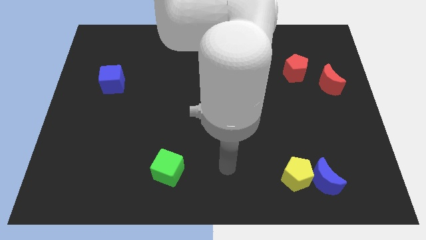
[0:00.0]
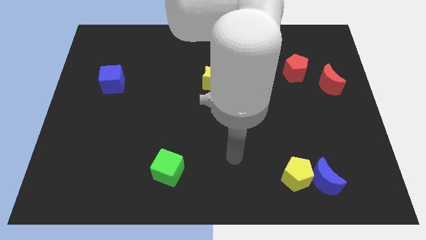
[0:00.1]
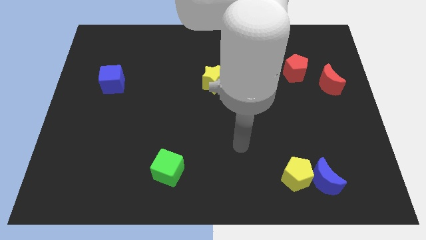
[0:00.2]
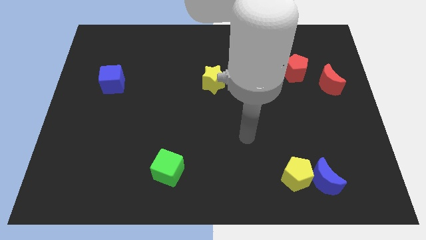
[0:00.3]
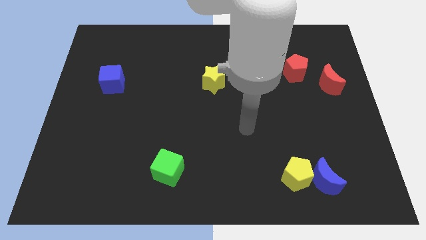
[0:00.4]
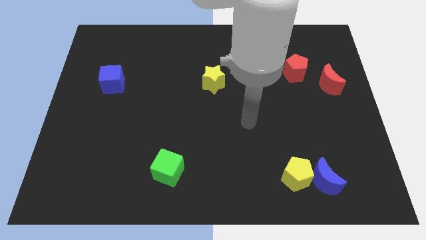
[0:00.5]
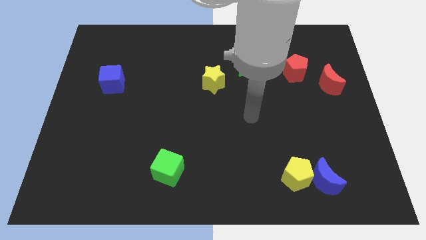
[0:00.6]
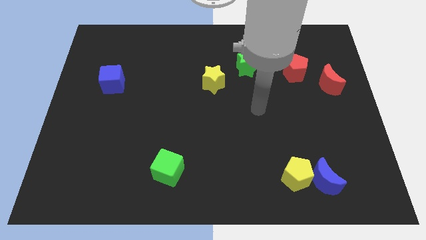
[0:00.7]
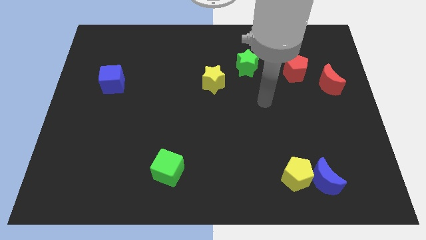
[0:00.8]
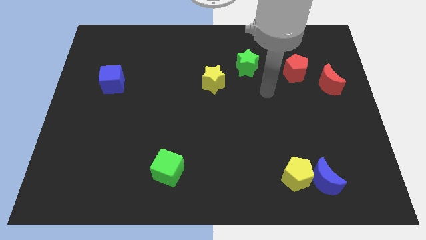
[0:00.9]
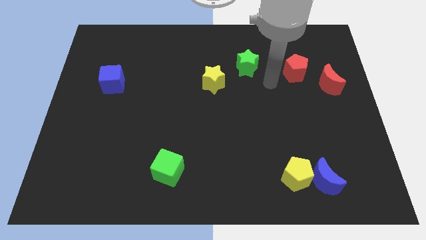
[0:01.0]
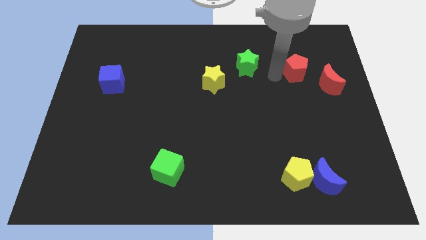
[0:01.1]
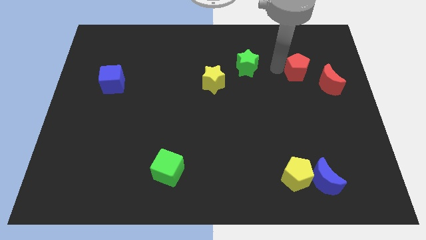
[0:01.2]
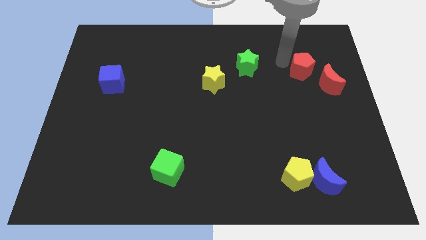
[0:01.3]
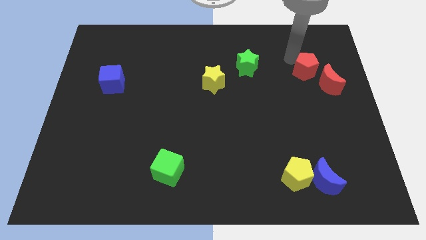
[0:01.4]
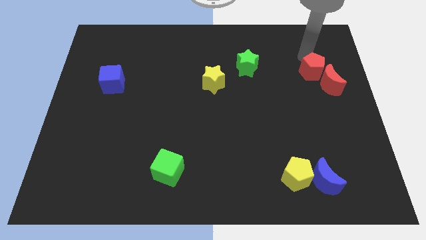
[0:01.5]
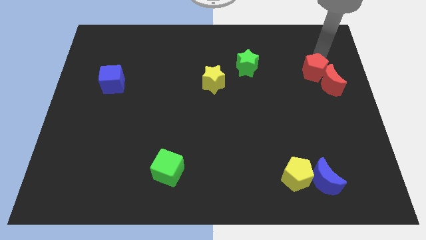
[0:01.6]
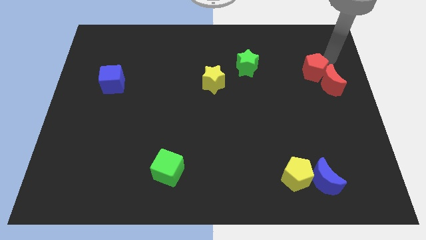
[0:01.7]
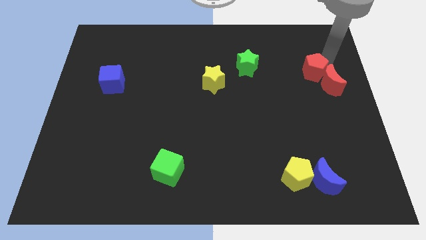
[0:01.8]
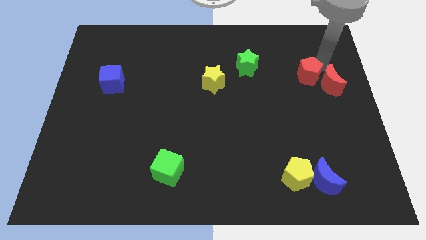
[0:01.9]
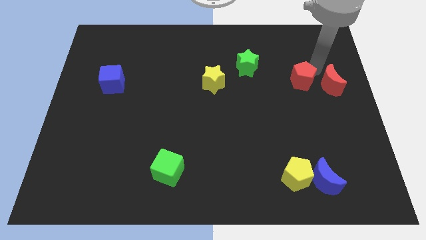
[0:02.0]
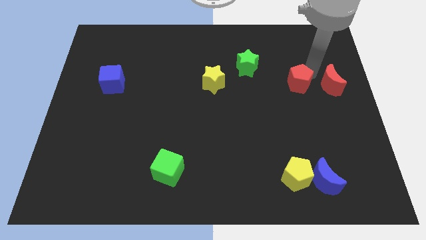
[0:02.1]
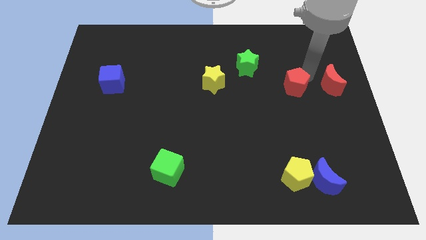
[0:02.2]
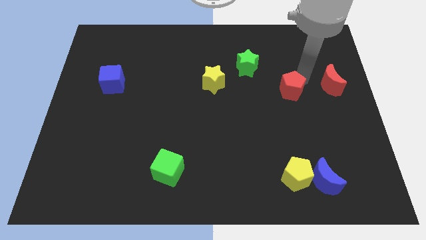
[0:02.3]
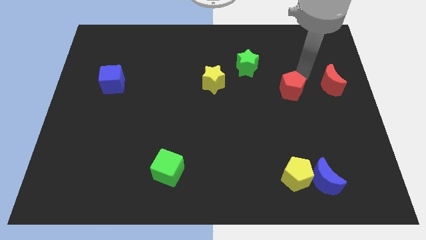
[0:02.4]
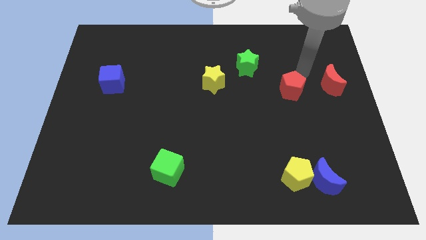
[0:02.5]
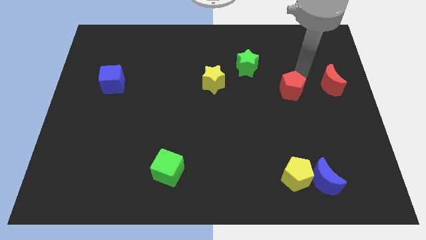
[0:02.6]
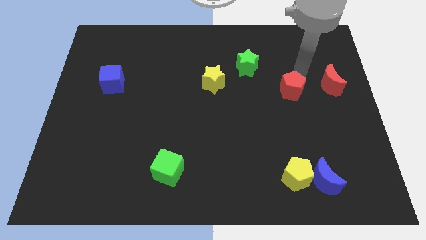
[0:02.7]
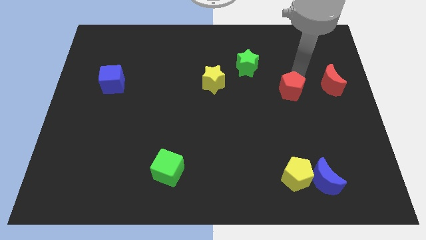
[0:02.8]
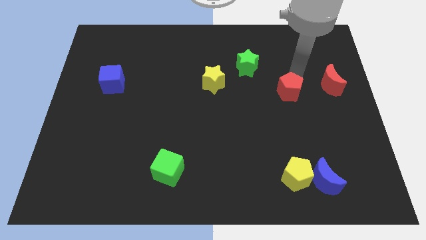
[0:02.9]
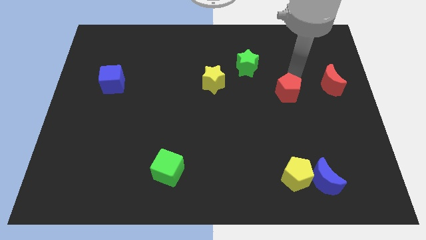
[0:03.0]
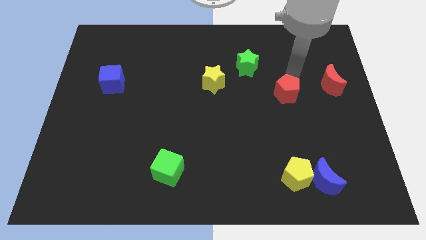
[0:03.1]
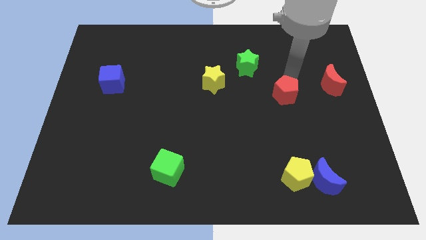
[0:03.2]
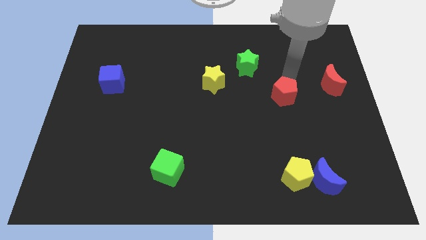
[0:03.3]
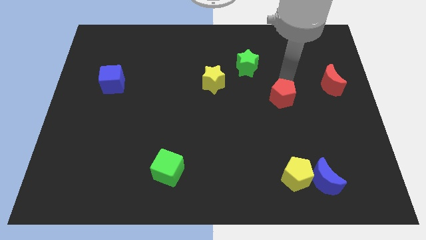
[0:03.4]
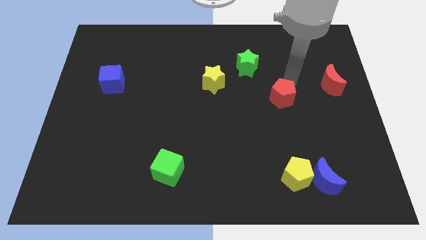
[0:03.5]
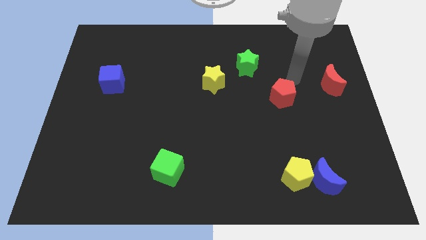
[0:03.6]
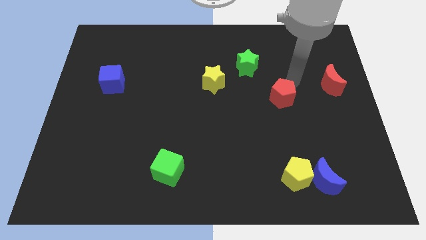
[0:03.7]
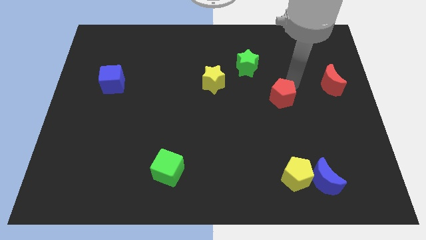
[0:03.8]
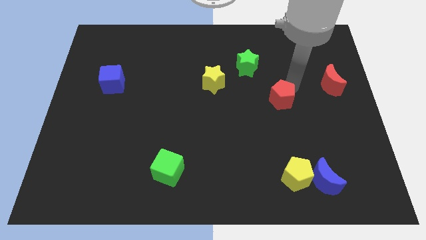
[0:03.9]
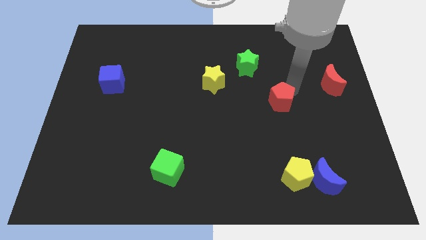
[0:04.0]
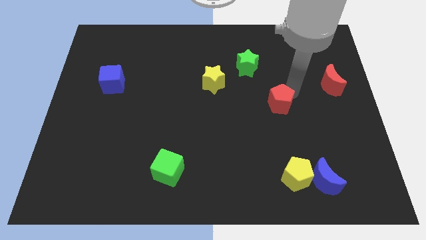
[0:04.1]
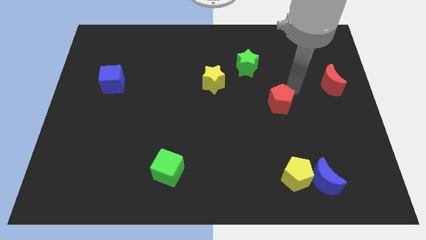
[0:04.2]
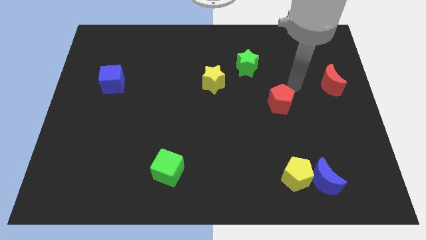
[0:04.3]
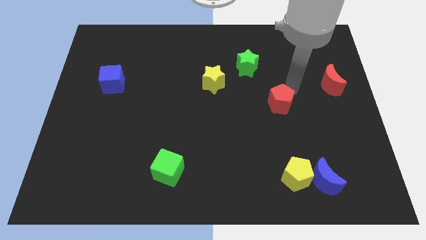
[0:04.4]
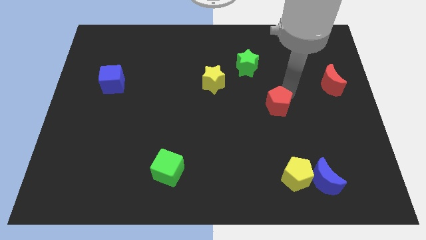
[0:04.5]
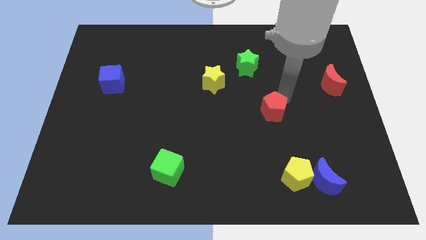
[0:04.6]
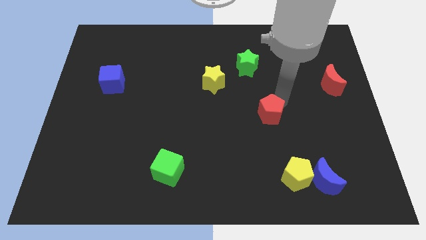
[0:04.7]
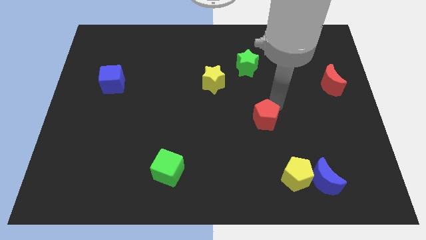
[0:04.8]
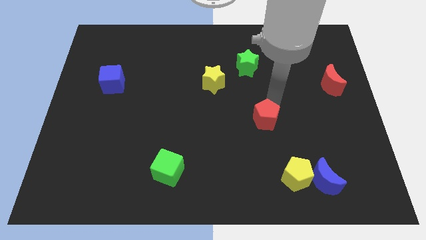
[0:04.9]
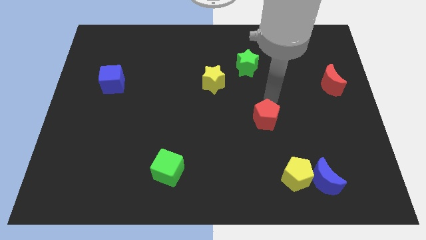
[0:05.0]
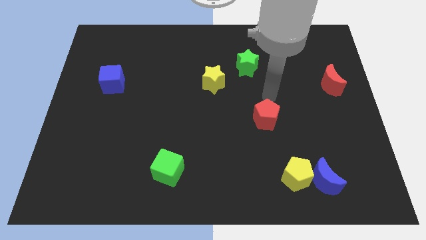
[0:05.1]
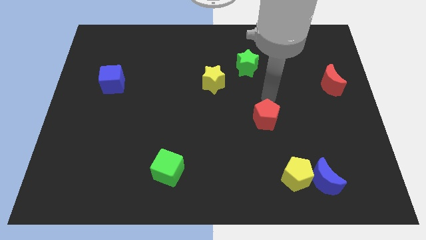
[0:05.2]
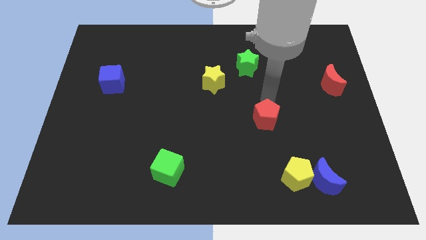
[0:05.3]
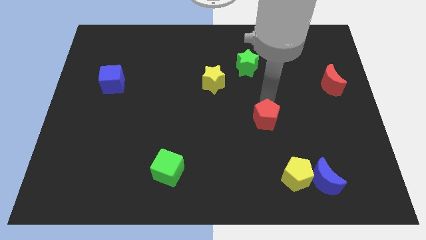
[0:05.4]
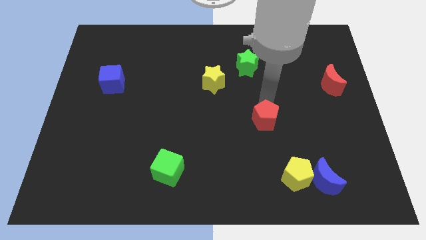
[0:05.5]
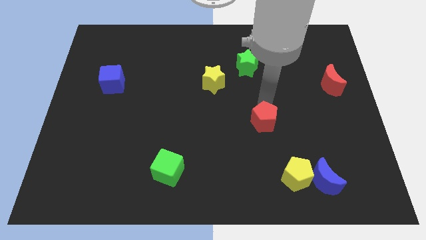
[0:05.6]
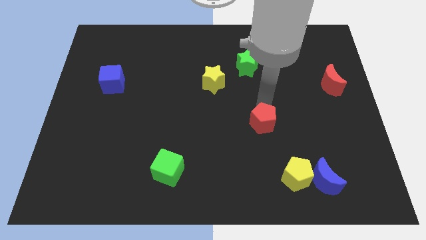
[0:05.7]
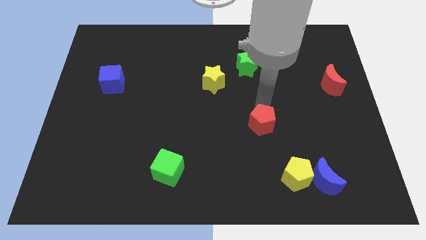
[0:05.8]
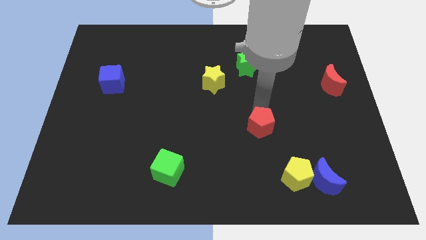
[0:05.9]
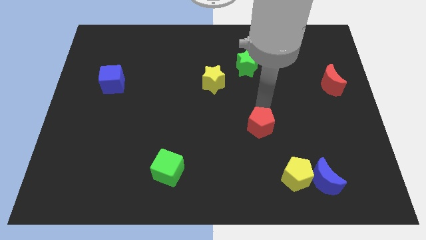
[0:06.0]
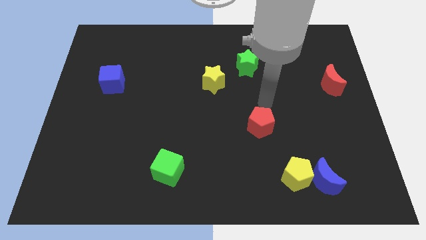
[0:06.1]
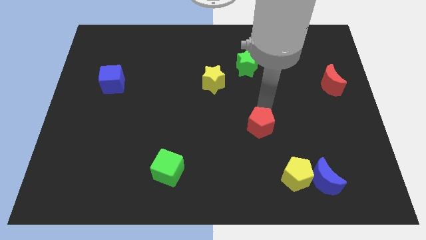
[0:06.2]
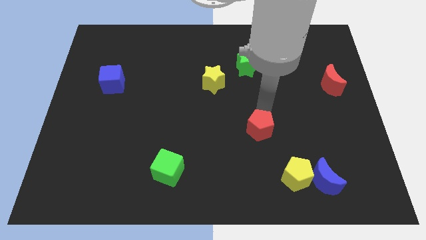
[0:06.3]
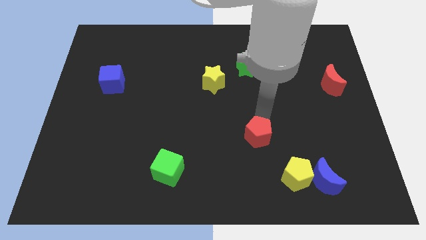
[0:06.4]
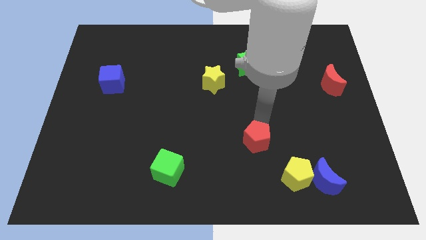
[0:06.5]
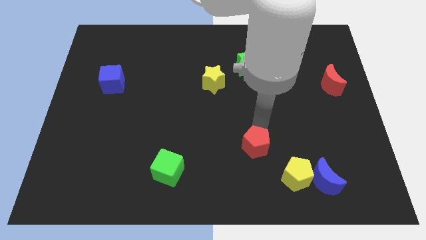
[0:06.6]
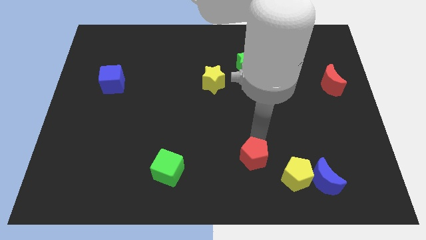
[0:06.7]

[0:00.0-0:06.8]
move the red pentagon just left of the yellow pentagon

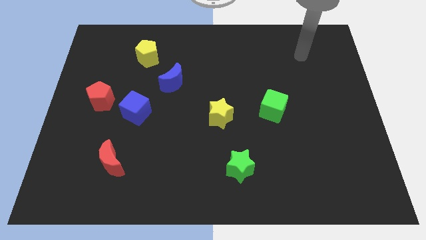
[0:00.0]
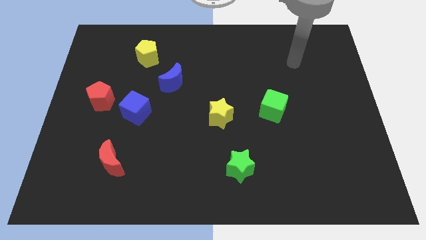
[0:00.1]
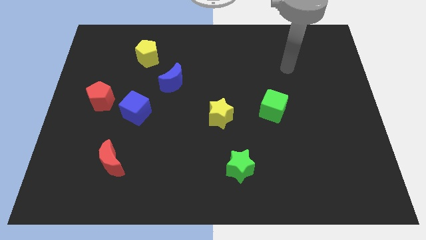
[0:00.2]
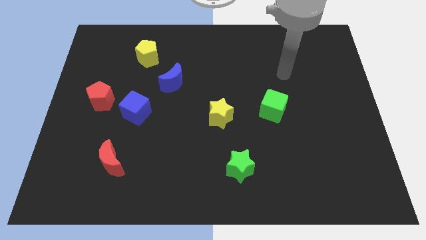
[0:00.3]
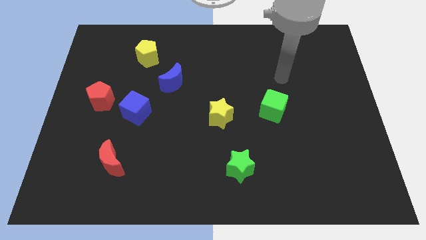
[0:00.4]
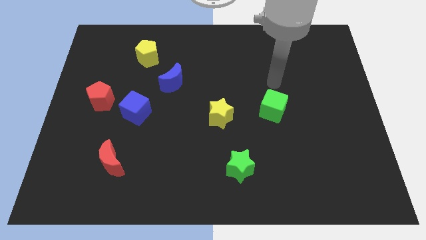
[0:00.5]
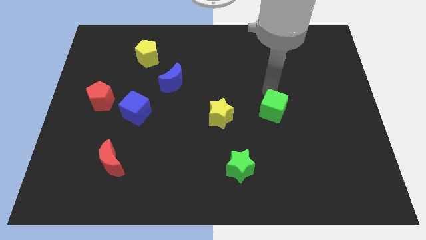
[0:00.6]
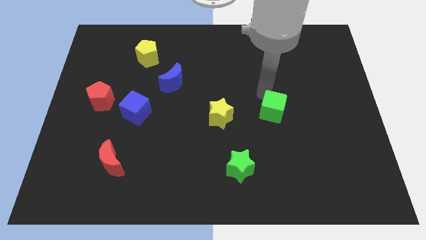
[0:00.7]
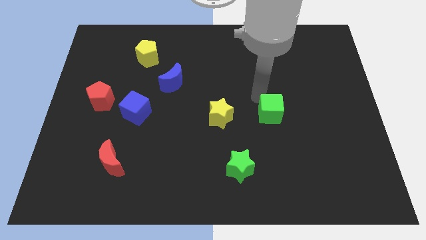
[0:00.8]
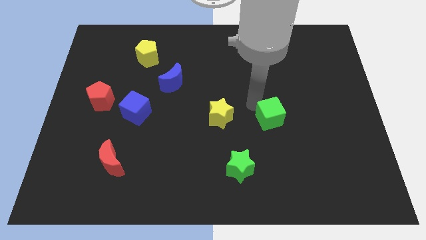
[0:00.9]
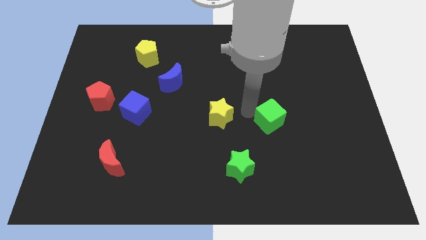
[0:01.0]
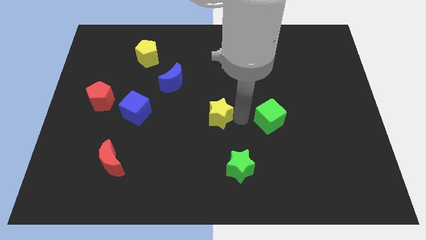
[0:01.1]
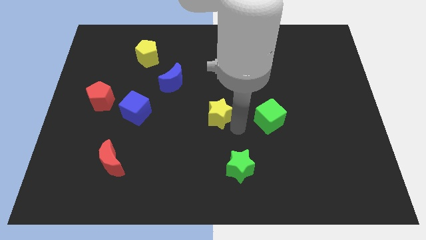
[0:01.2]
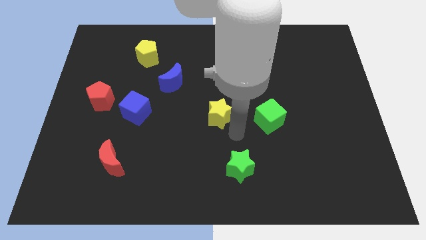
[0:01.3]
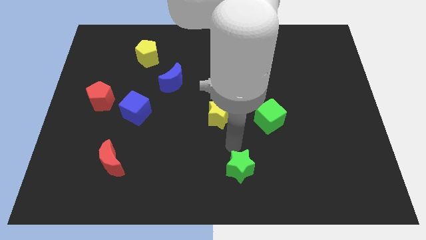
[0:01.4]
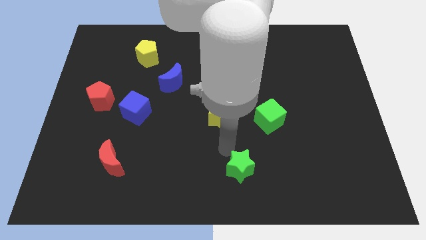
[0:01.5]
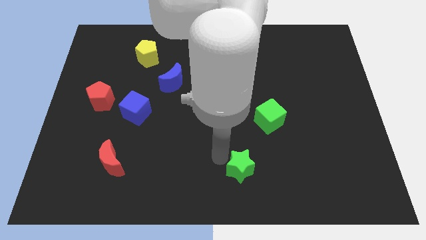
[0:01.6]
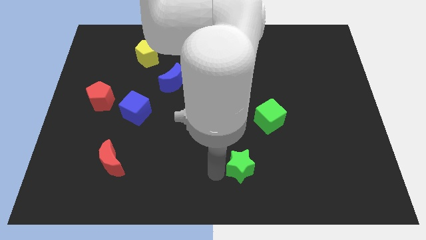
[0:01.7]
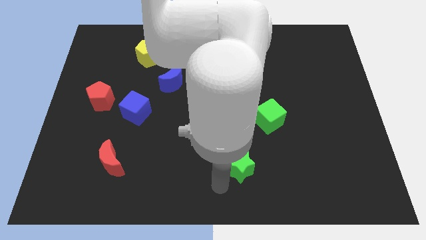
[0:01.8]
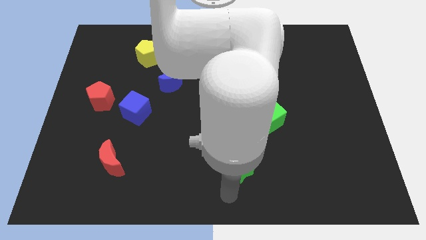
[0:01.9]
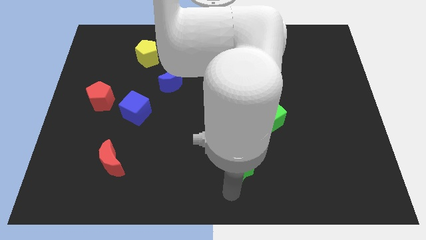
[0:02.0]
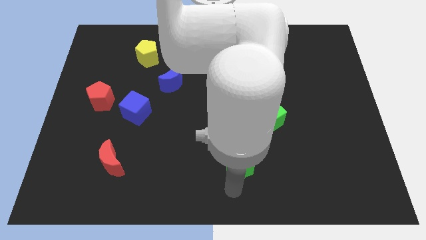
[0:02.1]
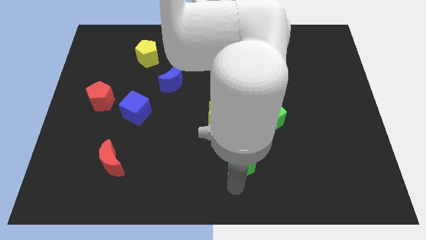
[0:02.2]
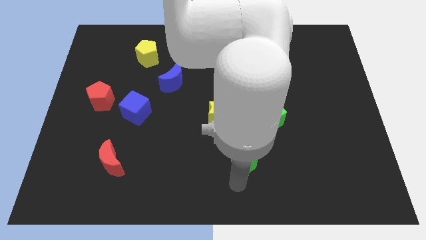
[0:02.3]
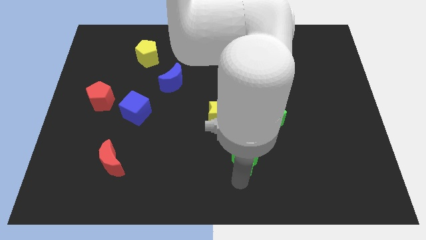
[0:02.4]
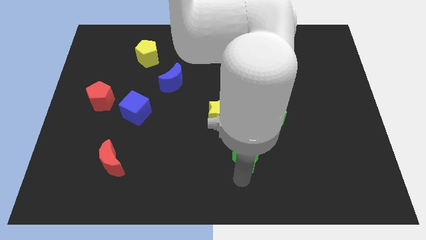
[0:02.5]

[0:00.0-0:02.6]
put the green star diagonally down and to the left of the green cube
